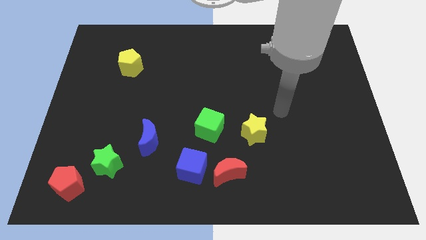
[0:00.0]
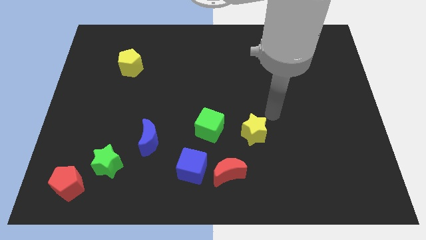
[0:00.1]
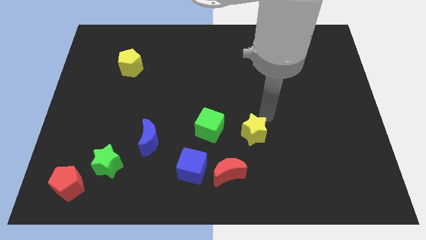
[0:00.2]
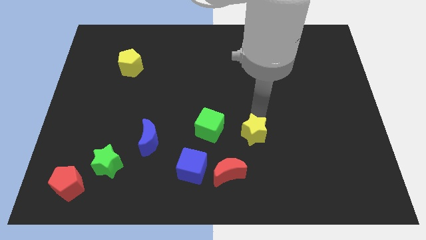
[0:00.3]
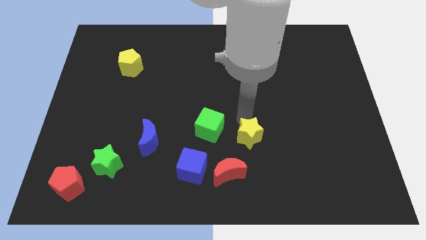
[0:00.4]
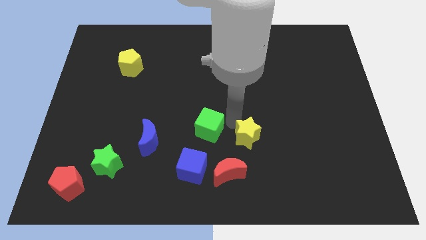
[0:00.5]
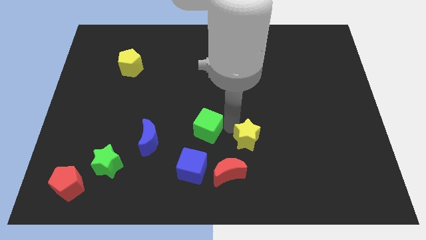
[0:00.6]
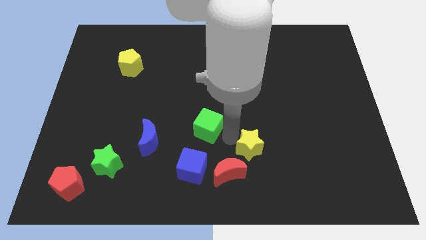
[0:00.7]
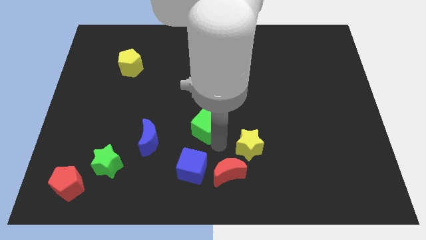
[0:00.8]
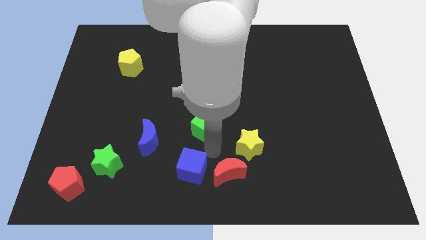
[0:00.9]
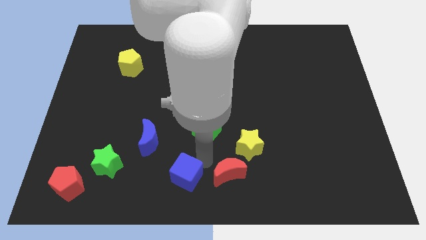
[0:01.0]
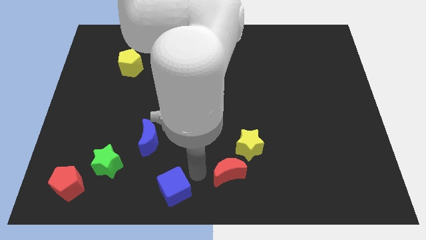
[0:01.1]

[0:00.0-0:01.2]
move the red moon away from the blue cube

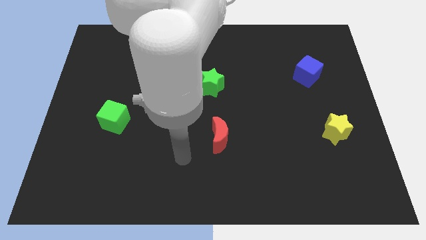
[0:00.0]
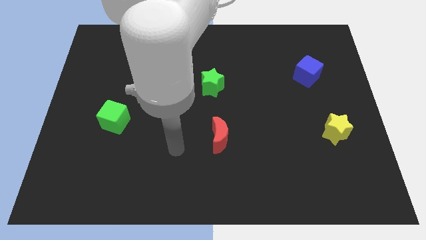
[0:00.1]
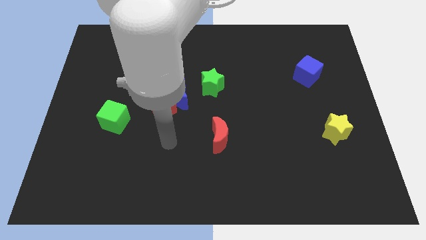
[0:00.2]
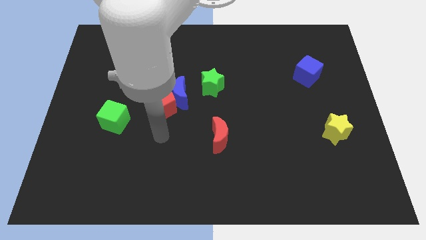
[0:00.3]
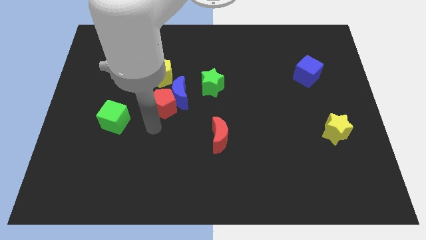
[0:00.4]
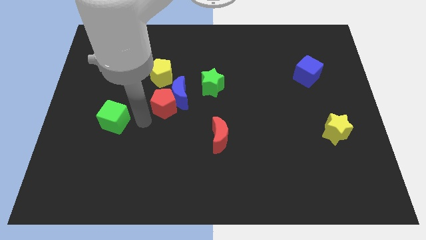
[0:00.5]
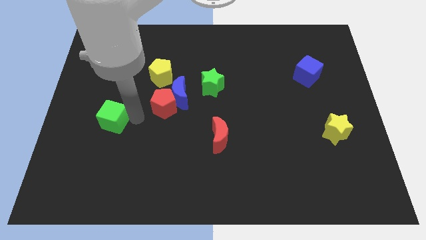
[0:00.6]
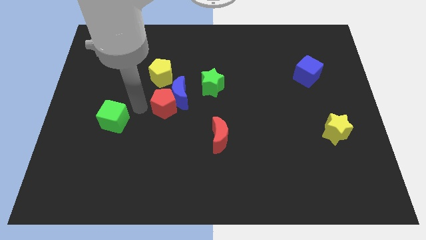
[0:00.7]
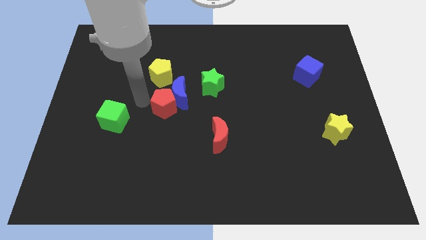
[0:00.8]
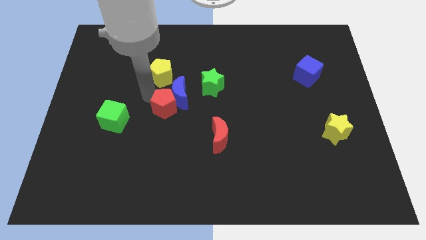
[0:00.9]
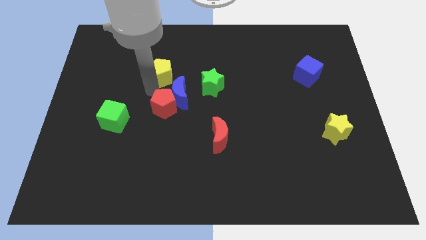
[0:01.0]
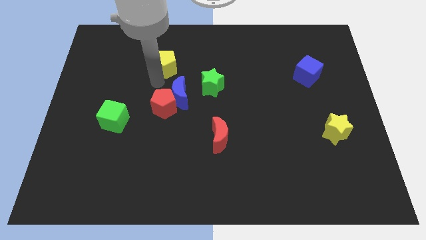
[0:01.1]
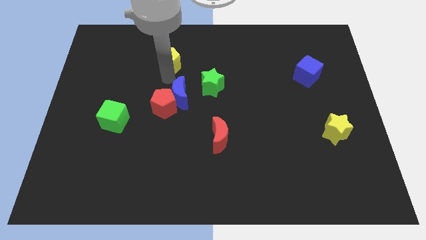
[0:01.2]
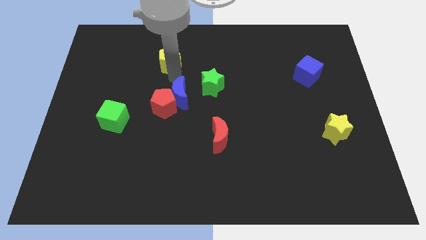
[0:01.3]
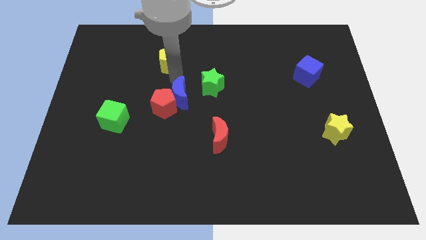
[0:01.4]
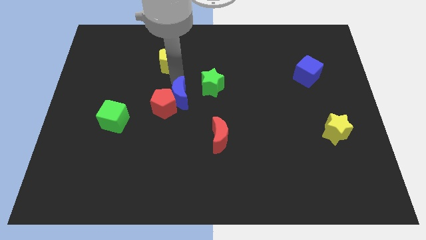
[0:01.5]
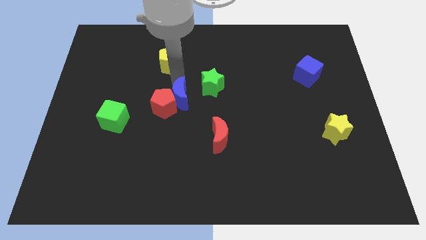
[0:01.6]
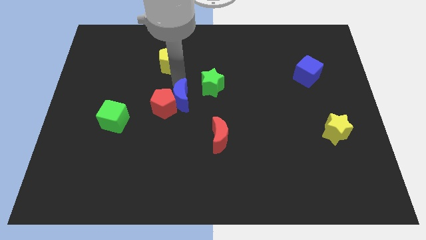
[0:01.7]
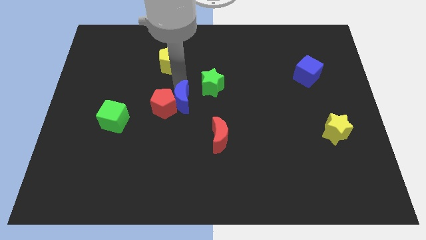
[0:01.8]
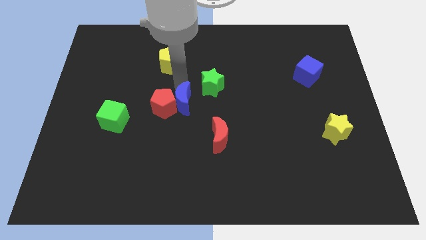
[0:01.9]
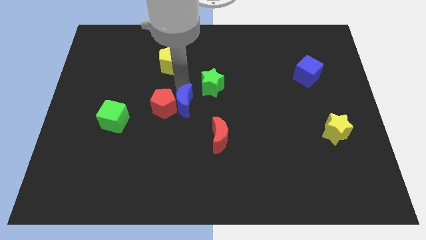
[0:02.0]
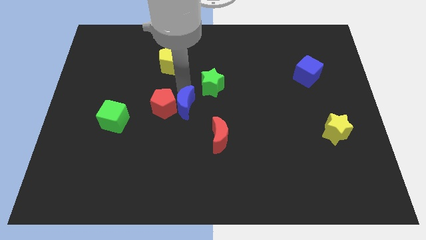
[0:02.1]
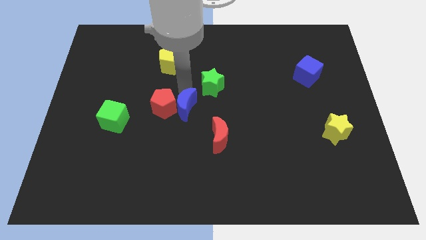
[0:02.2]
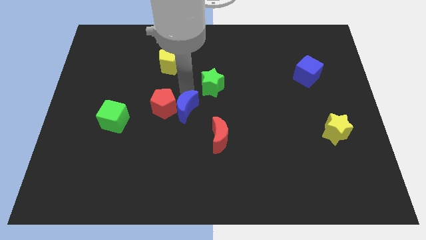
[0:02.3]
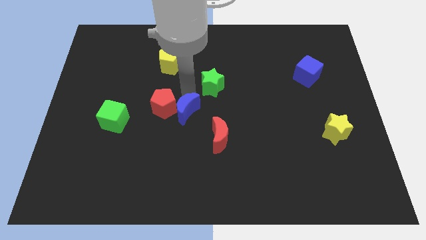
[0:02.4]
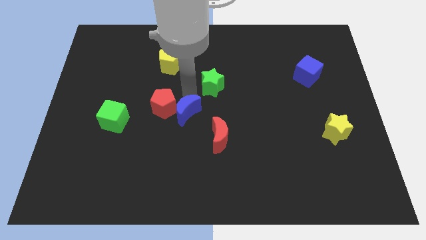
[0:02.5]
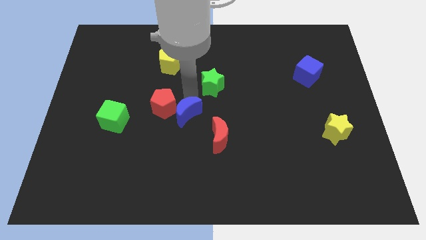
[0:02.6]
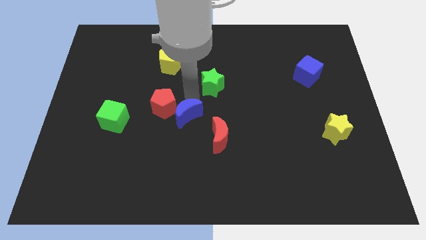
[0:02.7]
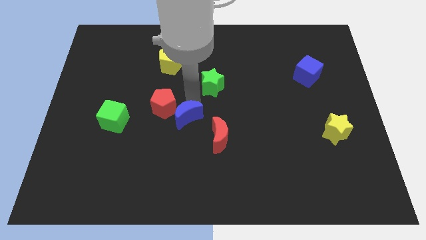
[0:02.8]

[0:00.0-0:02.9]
move the blue moon away from the group of blocks

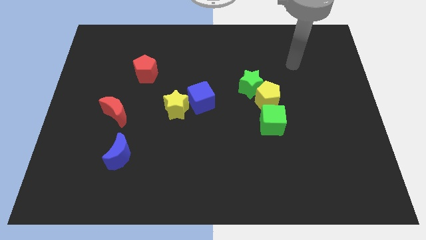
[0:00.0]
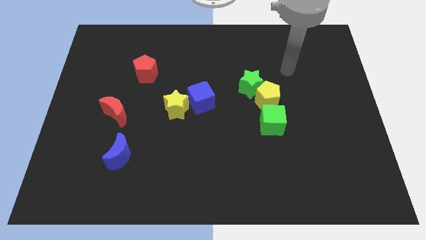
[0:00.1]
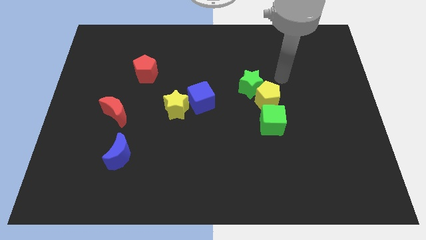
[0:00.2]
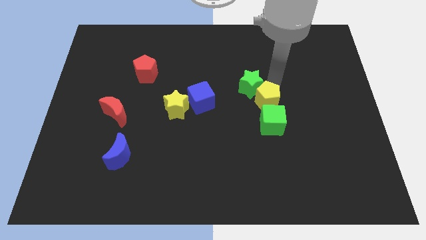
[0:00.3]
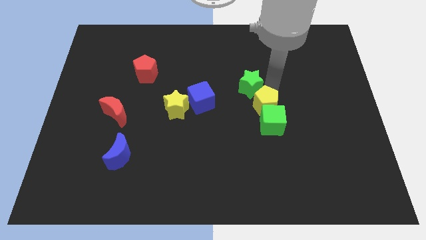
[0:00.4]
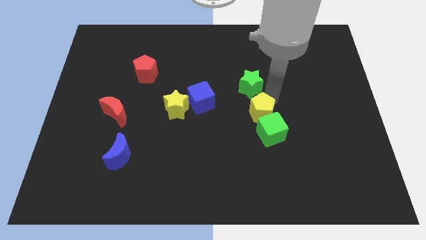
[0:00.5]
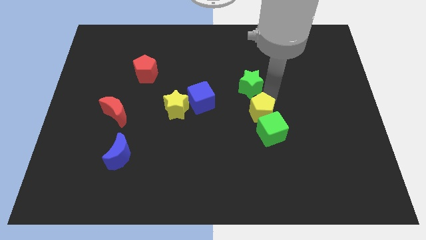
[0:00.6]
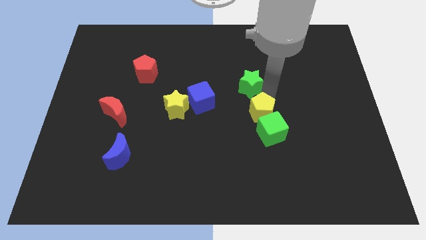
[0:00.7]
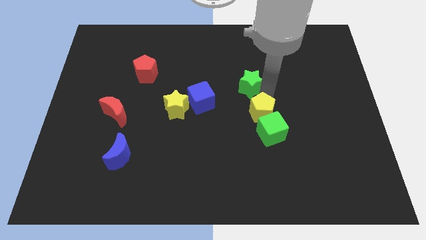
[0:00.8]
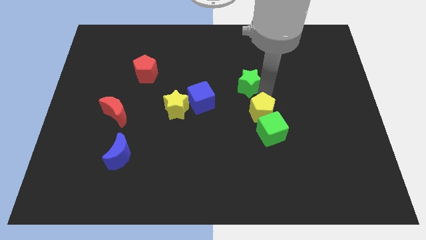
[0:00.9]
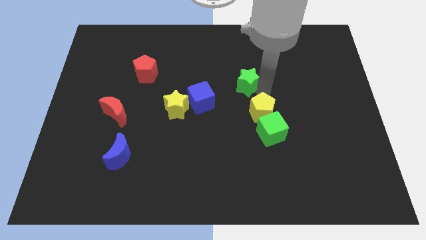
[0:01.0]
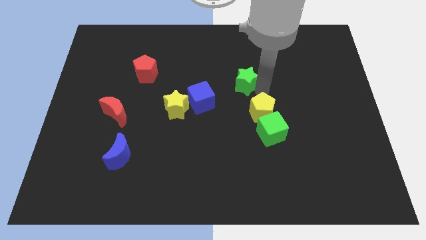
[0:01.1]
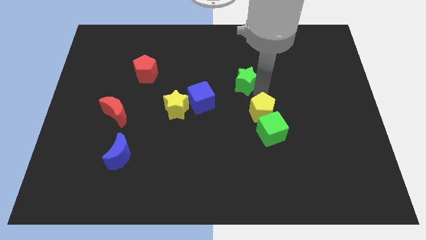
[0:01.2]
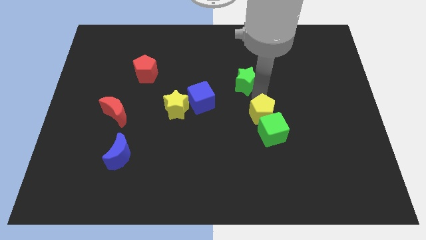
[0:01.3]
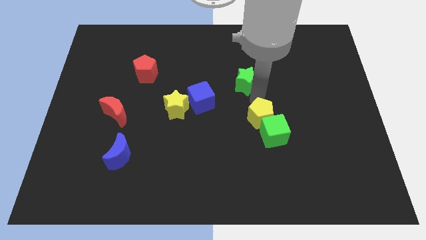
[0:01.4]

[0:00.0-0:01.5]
pull the green star apart from the yellow pentagon

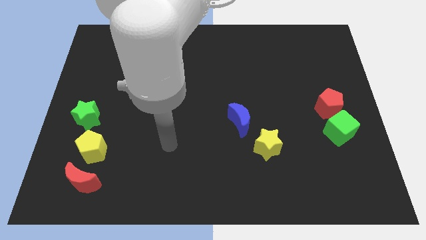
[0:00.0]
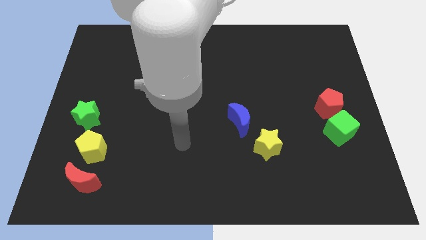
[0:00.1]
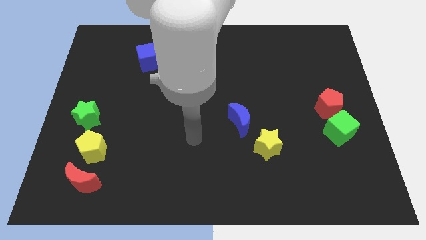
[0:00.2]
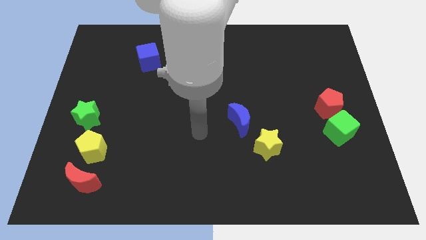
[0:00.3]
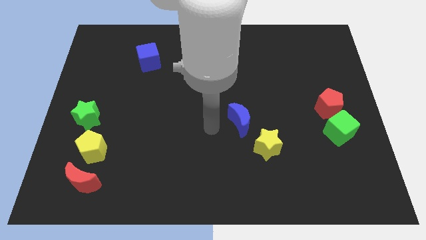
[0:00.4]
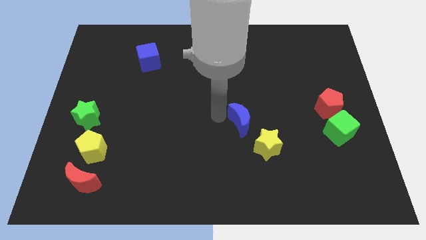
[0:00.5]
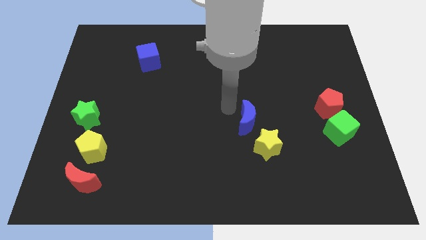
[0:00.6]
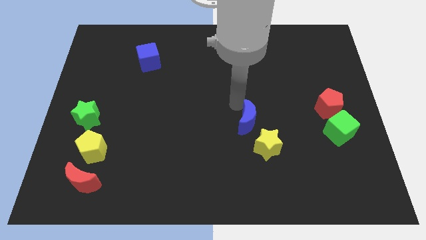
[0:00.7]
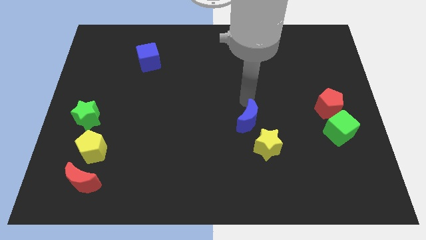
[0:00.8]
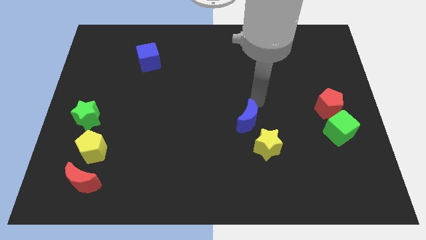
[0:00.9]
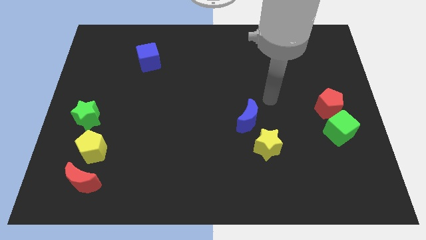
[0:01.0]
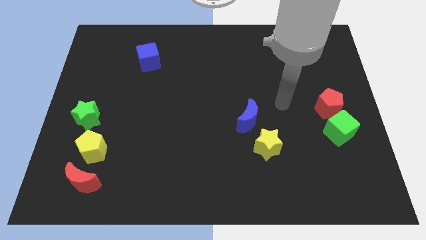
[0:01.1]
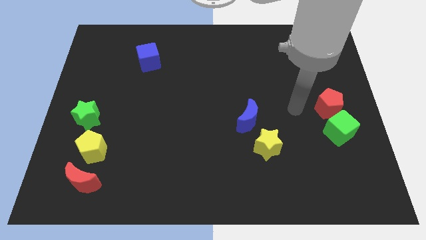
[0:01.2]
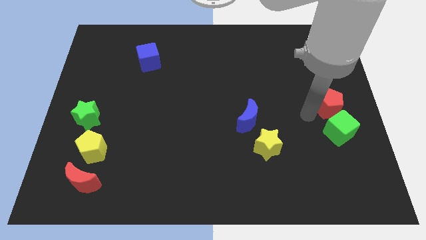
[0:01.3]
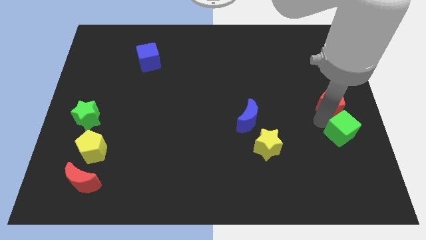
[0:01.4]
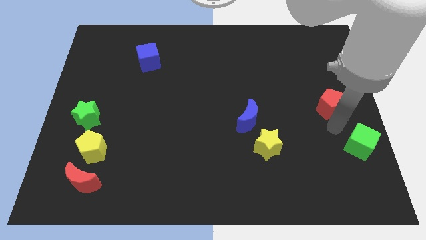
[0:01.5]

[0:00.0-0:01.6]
separate the red pentagon from the green cube

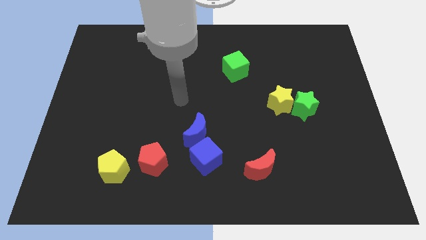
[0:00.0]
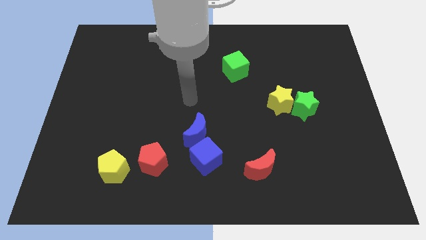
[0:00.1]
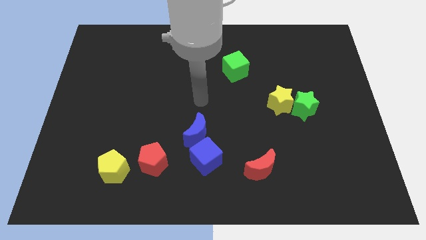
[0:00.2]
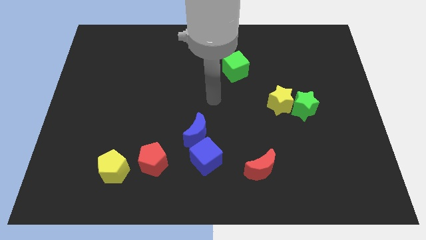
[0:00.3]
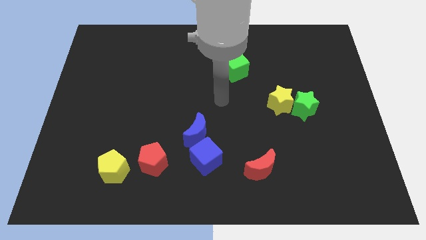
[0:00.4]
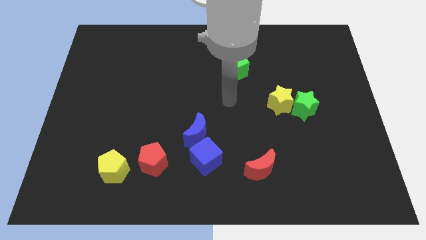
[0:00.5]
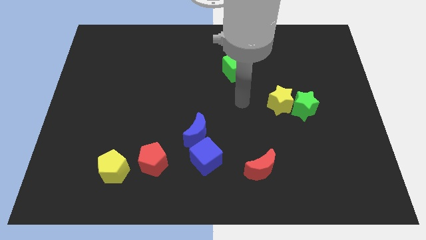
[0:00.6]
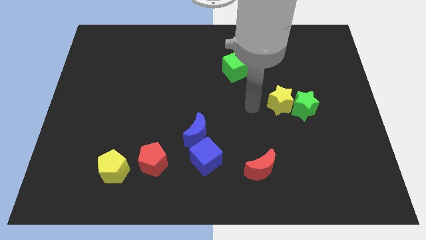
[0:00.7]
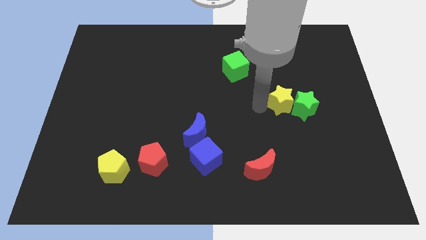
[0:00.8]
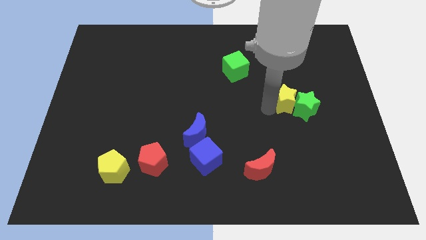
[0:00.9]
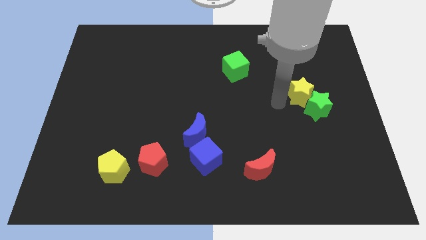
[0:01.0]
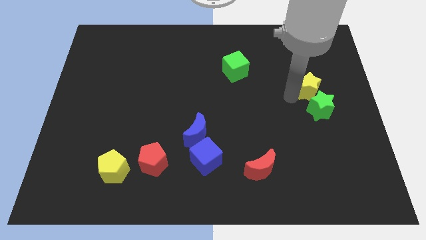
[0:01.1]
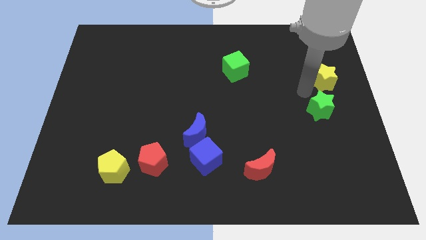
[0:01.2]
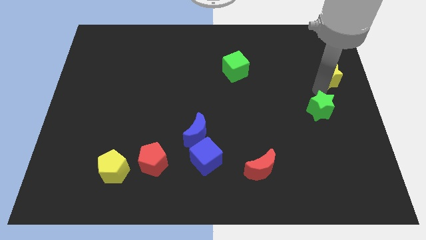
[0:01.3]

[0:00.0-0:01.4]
separate the green star from the yellow star

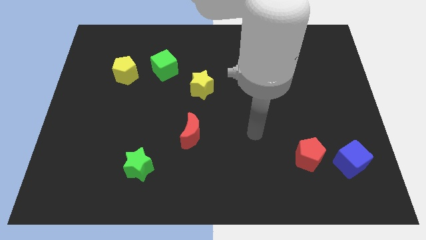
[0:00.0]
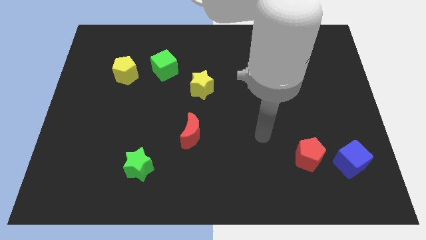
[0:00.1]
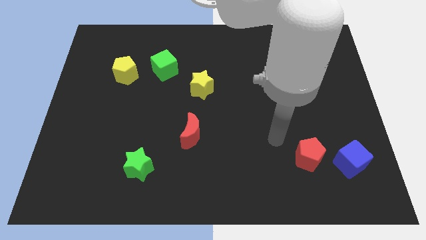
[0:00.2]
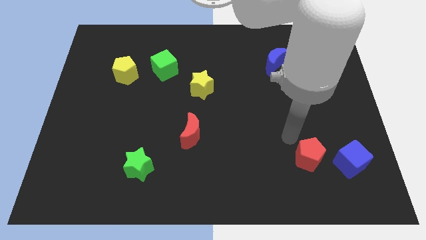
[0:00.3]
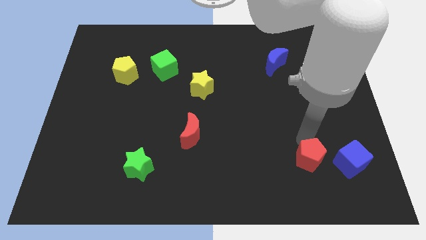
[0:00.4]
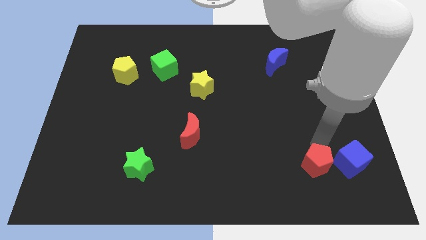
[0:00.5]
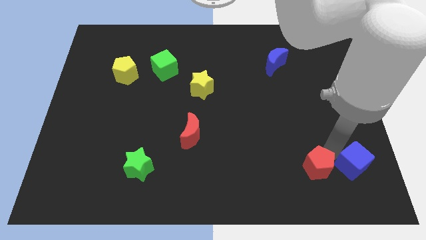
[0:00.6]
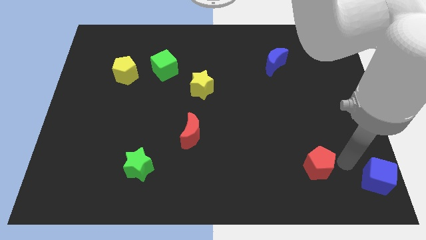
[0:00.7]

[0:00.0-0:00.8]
separate the red pentagon from the blue cube
